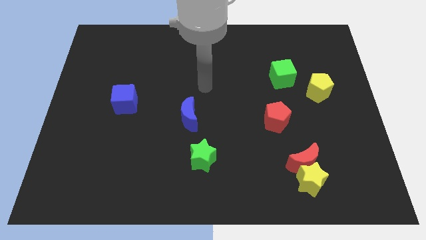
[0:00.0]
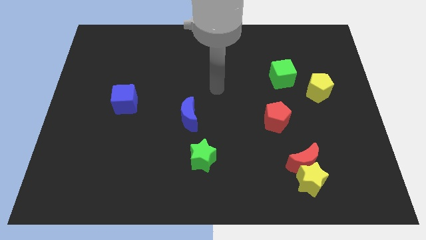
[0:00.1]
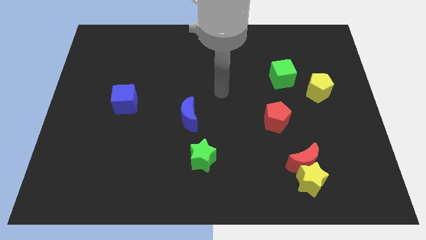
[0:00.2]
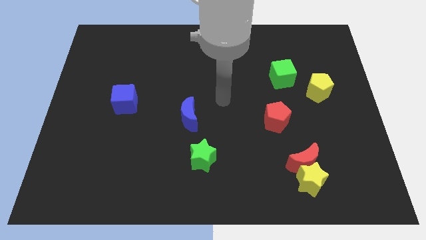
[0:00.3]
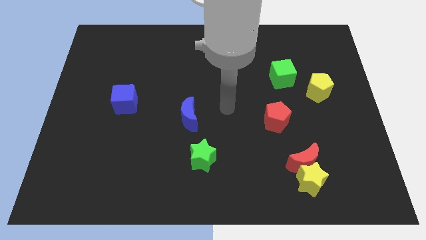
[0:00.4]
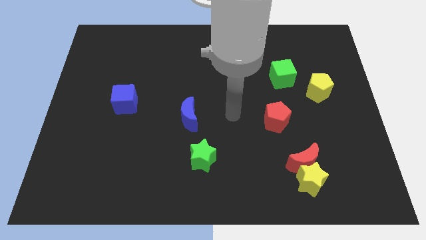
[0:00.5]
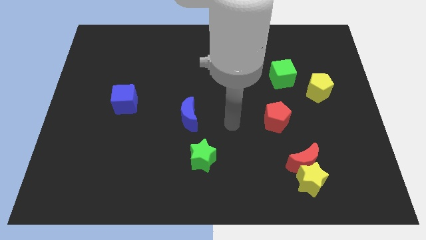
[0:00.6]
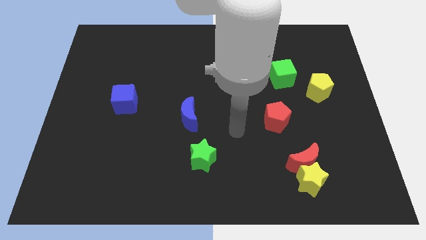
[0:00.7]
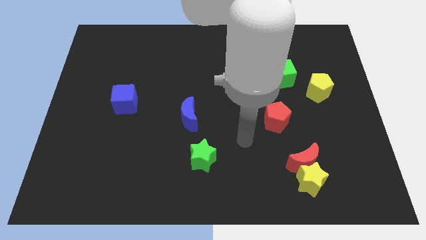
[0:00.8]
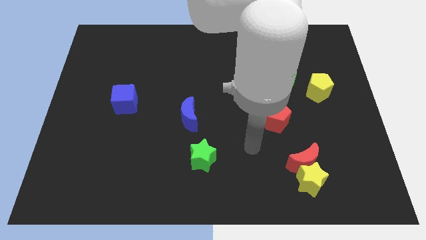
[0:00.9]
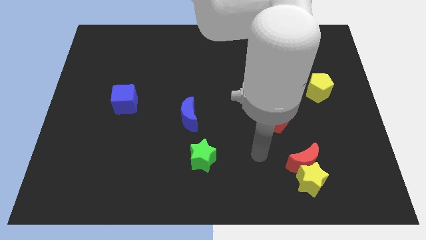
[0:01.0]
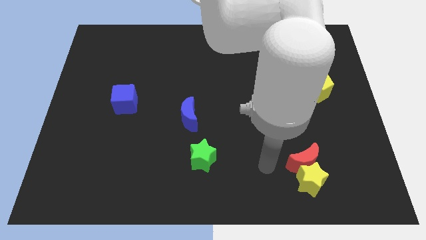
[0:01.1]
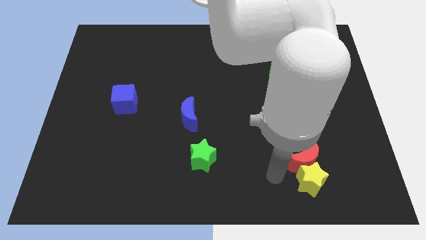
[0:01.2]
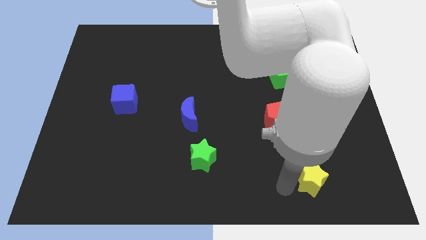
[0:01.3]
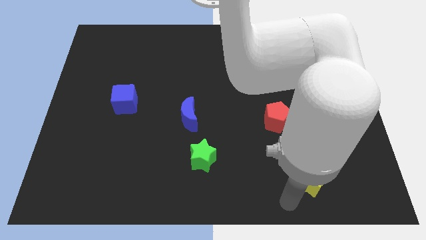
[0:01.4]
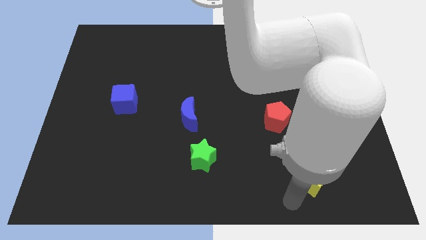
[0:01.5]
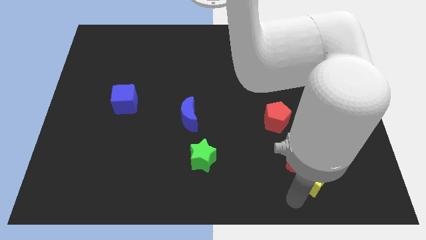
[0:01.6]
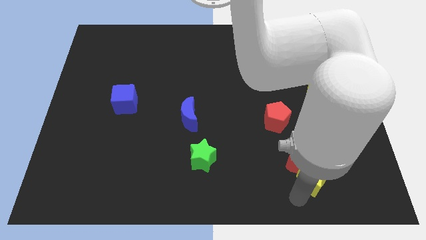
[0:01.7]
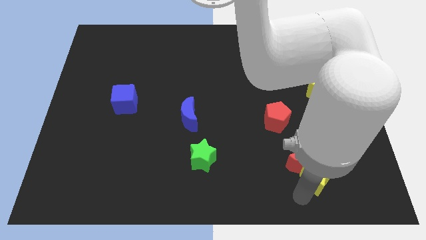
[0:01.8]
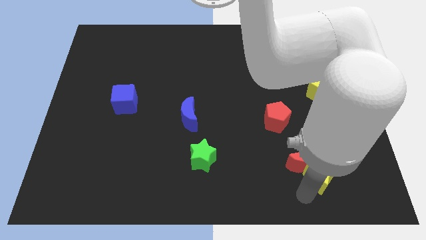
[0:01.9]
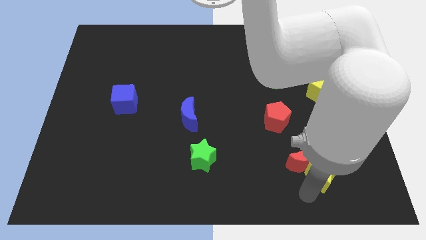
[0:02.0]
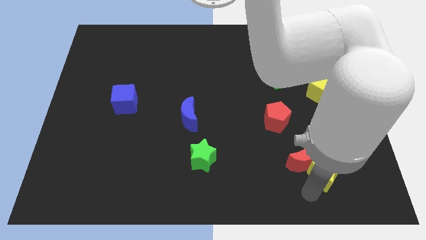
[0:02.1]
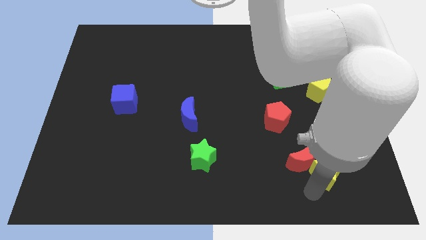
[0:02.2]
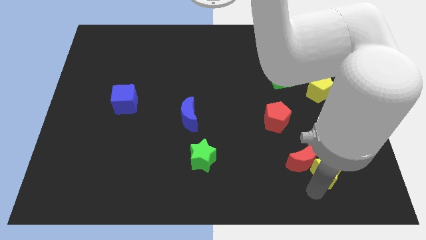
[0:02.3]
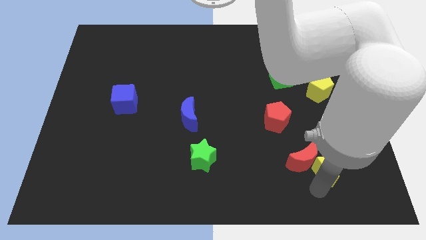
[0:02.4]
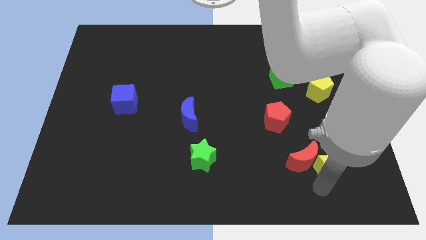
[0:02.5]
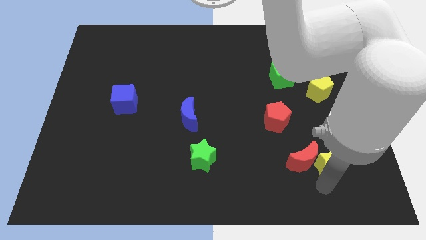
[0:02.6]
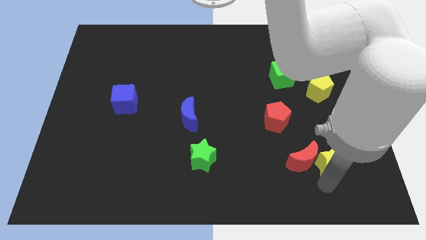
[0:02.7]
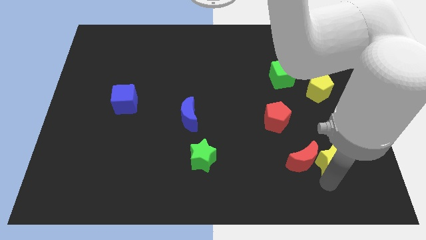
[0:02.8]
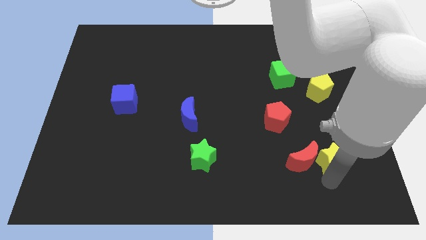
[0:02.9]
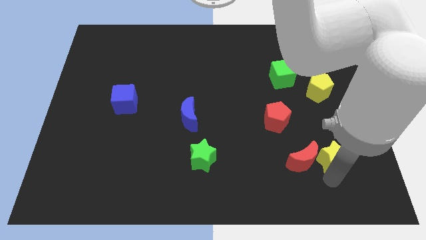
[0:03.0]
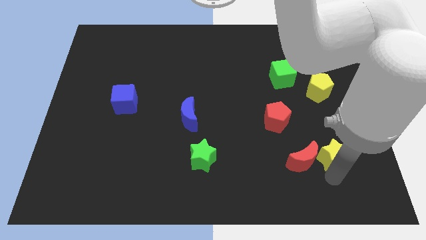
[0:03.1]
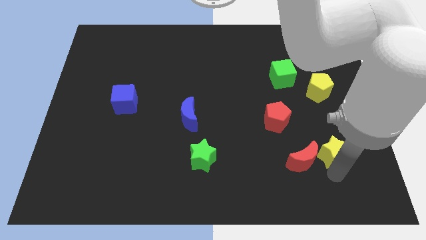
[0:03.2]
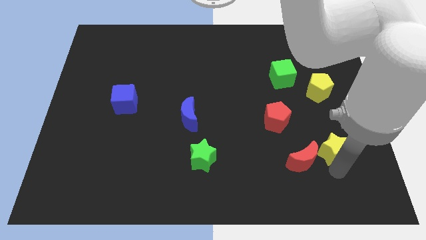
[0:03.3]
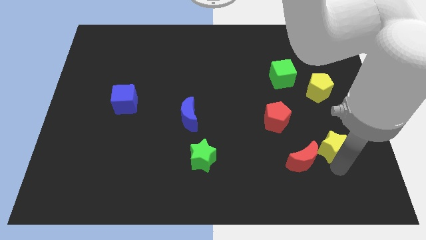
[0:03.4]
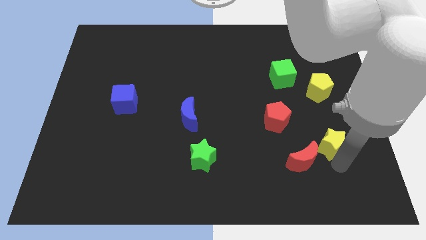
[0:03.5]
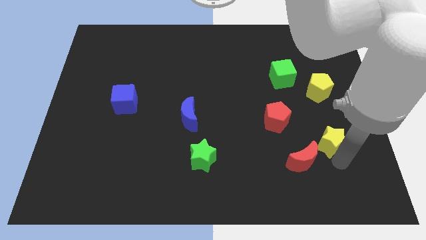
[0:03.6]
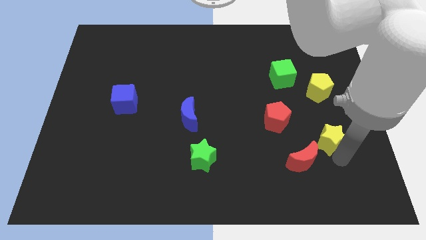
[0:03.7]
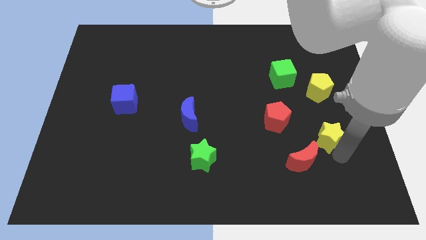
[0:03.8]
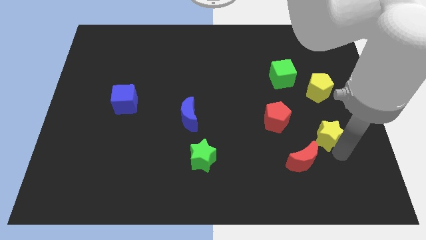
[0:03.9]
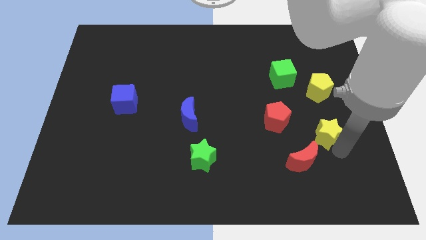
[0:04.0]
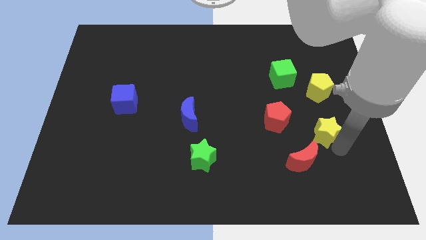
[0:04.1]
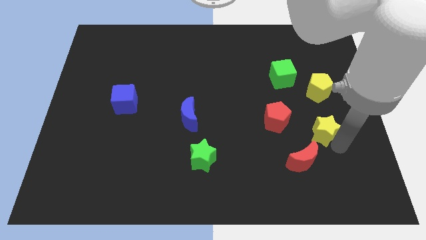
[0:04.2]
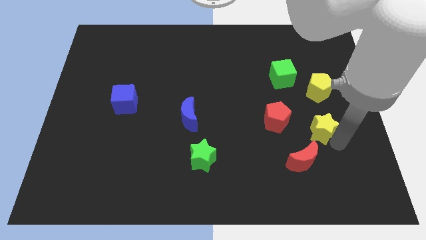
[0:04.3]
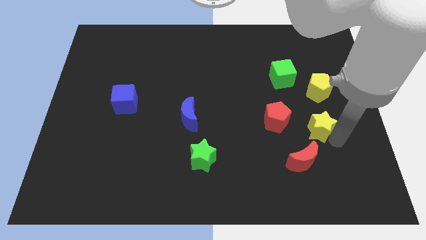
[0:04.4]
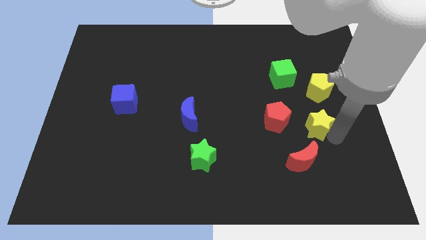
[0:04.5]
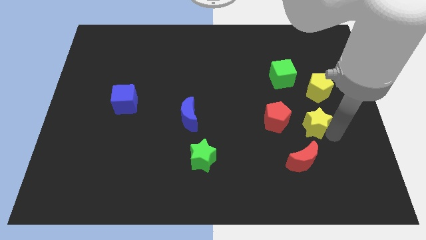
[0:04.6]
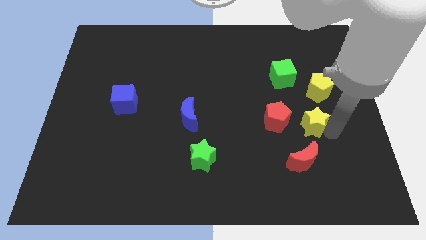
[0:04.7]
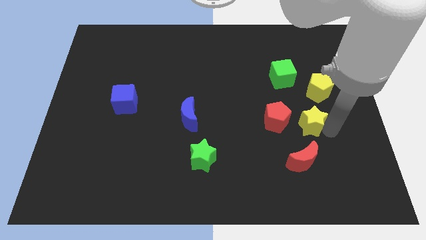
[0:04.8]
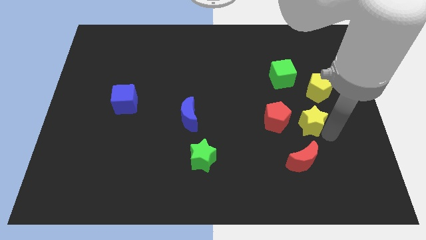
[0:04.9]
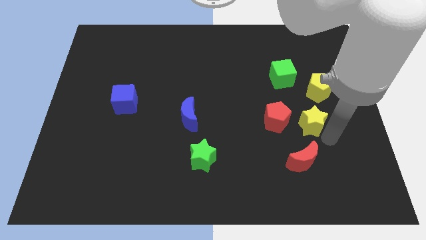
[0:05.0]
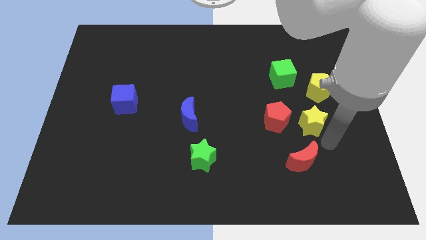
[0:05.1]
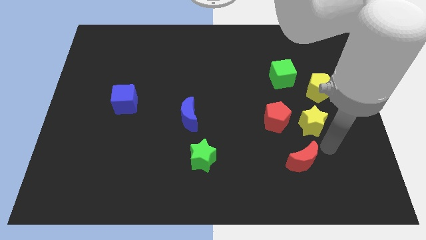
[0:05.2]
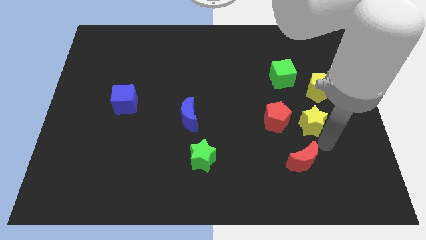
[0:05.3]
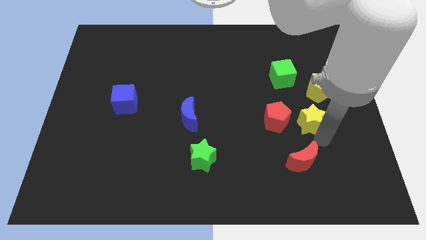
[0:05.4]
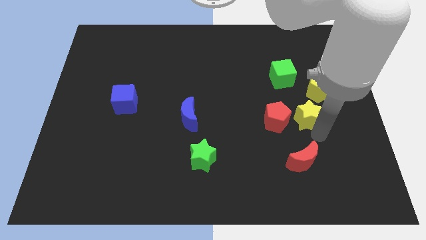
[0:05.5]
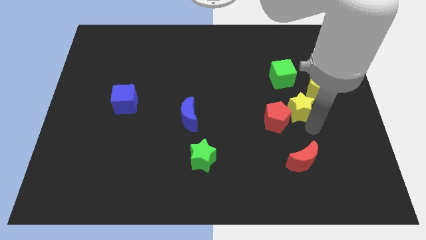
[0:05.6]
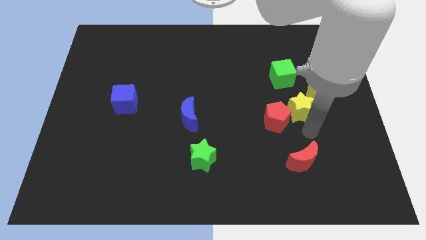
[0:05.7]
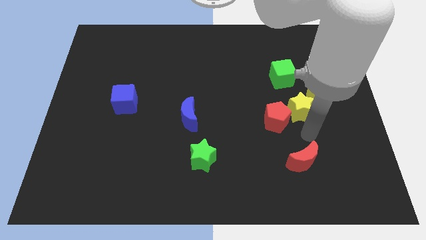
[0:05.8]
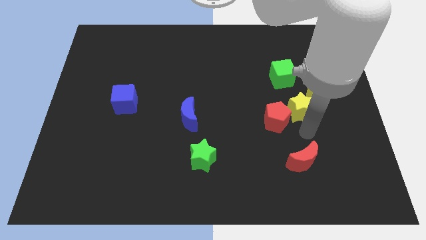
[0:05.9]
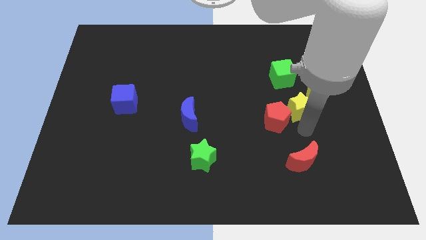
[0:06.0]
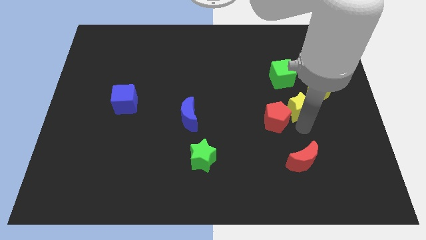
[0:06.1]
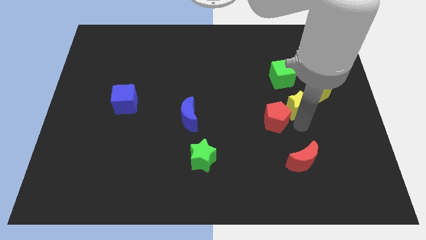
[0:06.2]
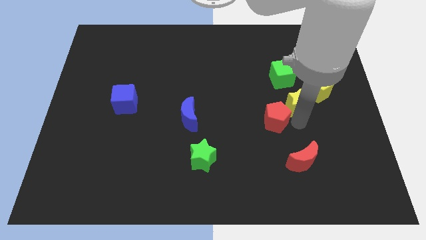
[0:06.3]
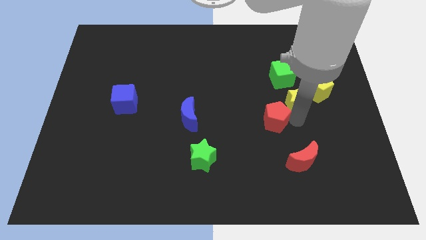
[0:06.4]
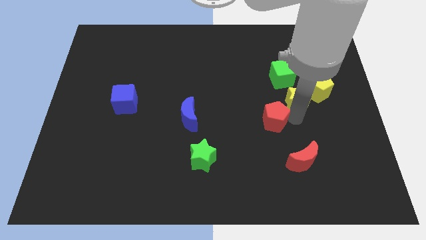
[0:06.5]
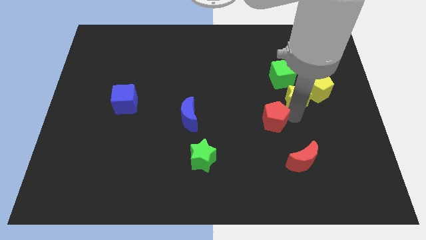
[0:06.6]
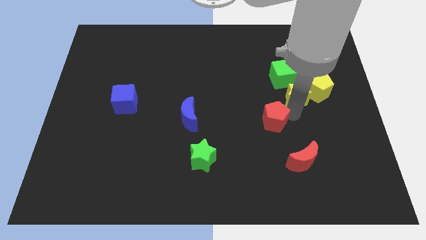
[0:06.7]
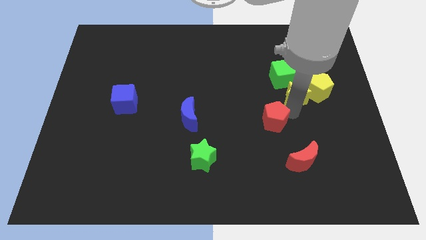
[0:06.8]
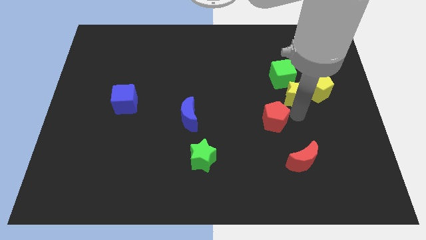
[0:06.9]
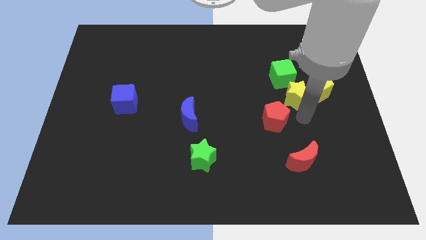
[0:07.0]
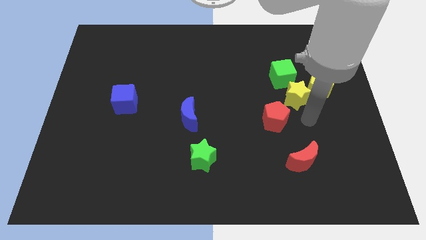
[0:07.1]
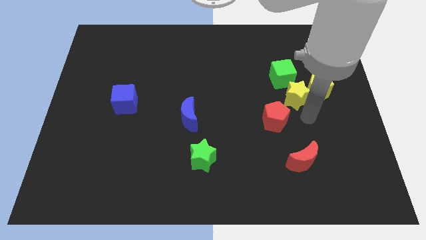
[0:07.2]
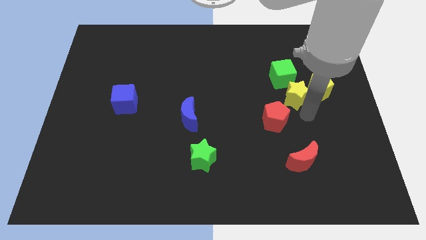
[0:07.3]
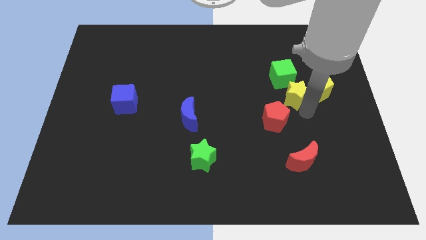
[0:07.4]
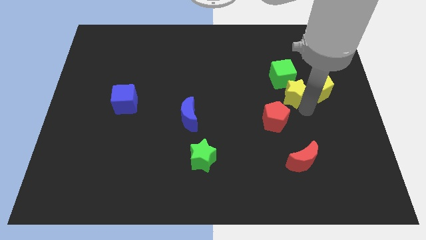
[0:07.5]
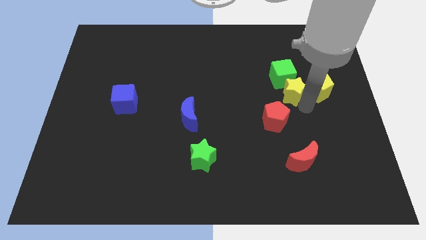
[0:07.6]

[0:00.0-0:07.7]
push the yellow star next to the green cube

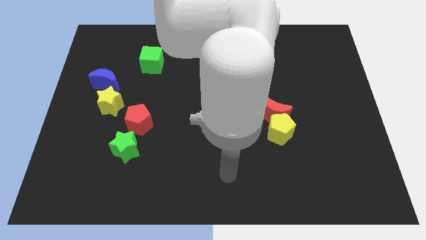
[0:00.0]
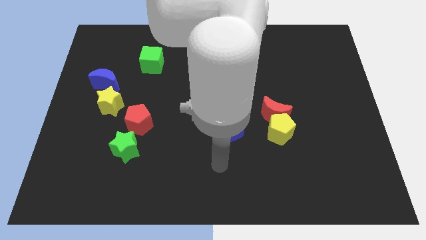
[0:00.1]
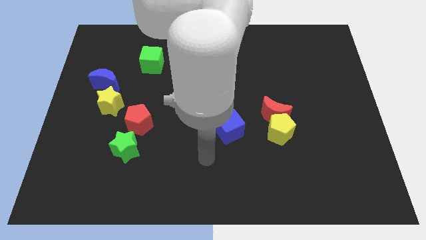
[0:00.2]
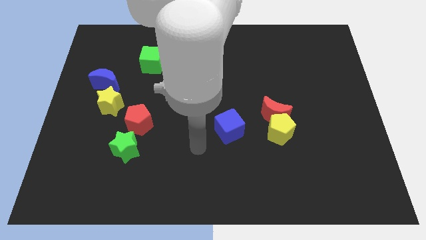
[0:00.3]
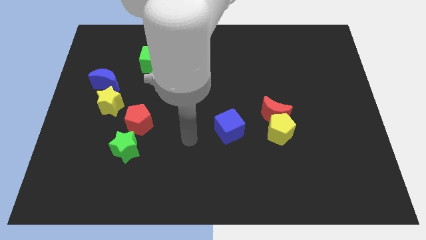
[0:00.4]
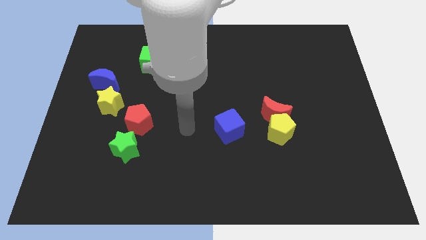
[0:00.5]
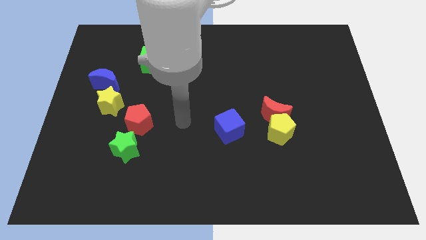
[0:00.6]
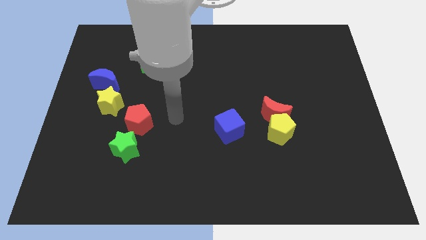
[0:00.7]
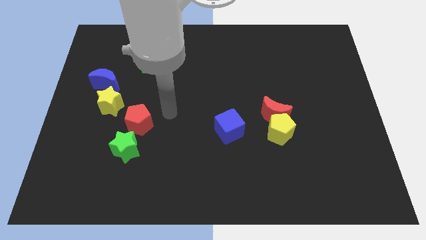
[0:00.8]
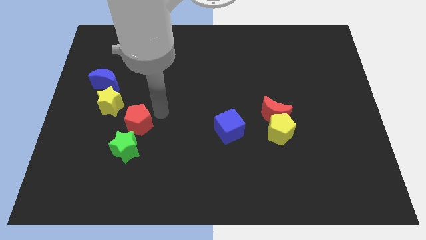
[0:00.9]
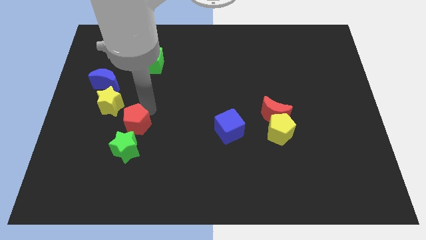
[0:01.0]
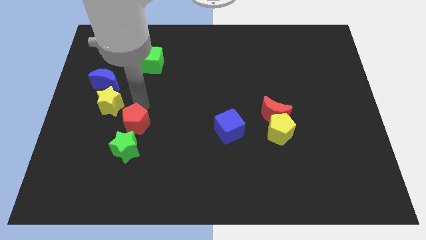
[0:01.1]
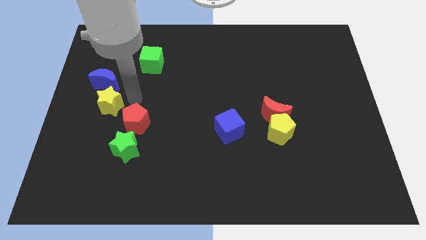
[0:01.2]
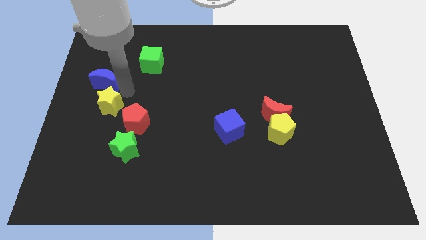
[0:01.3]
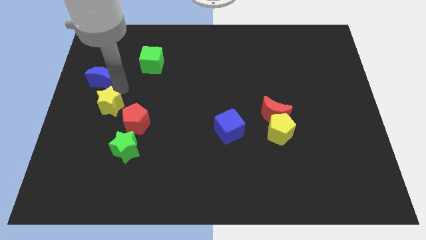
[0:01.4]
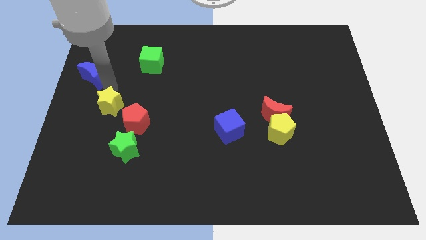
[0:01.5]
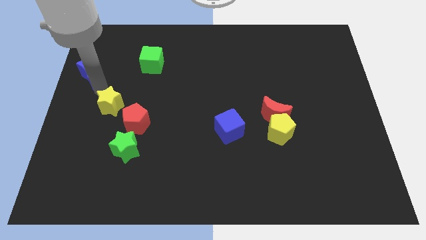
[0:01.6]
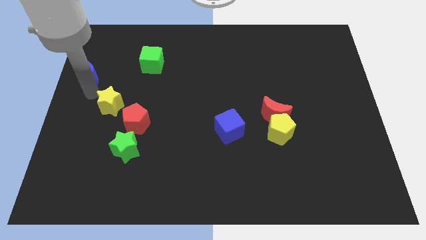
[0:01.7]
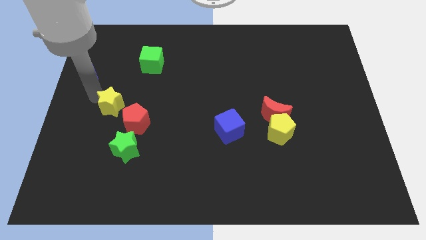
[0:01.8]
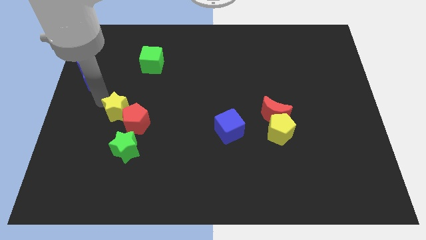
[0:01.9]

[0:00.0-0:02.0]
push the yellow star close to the red pentagon
